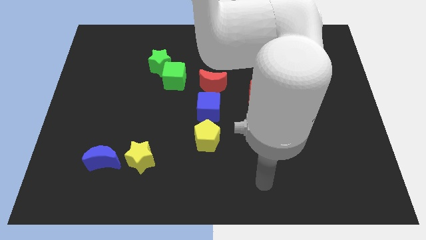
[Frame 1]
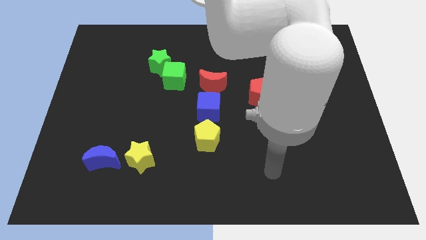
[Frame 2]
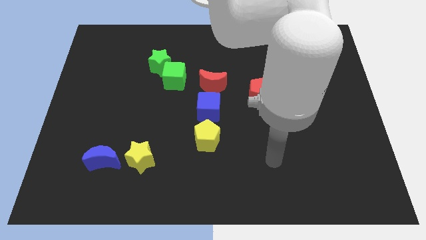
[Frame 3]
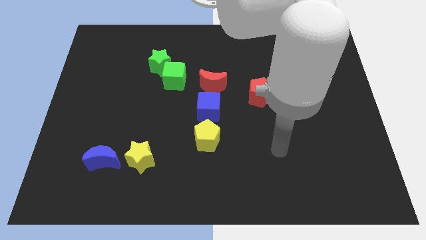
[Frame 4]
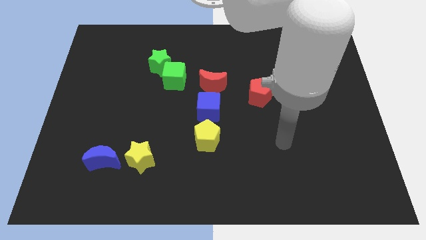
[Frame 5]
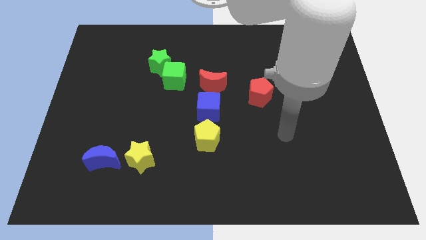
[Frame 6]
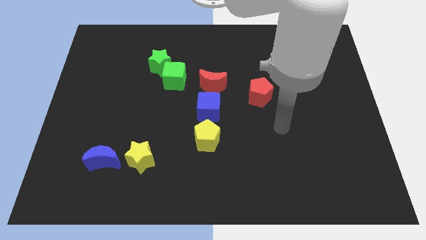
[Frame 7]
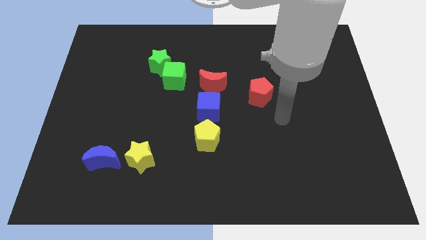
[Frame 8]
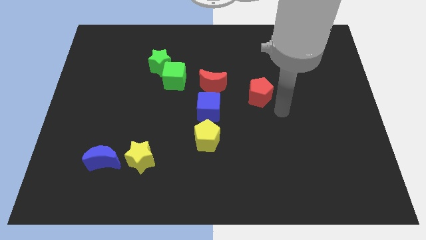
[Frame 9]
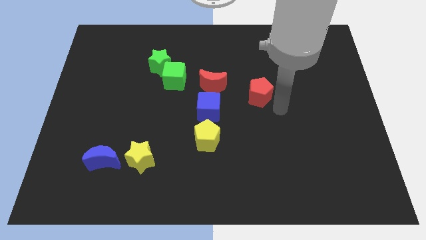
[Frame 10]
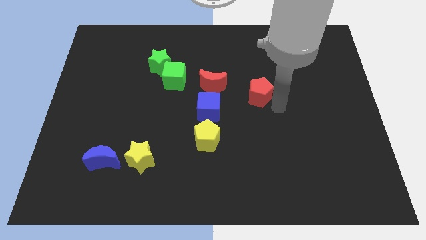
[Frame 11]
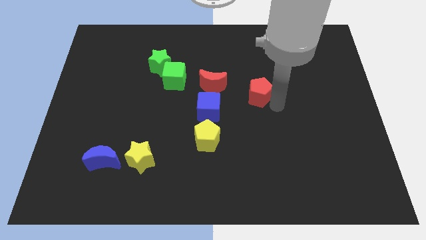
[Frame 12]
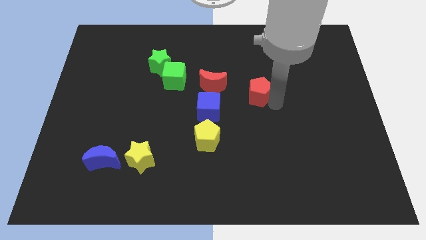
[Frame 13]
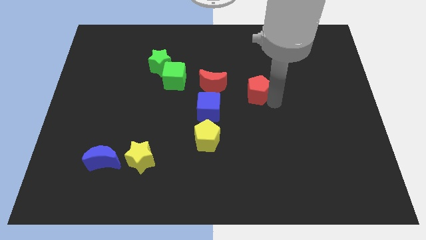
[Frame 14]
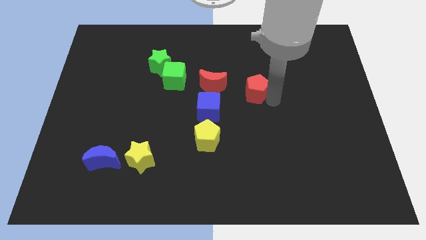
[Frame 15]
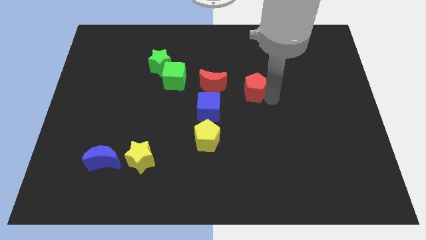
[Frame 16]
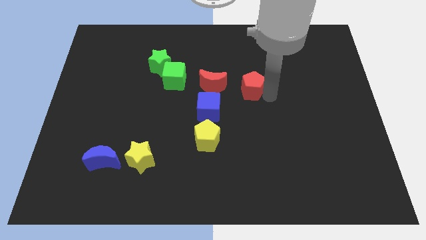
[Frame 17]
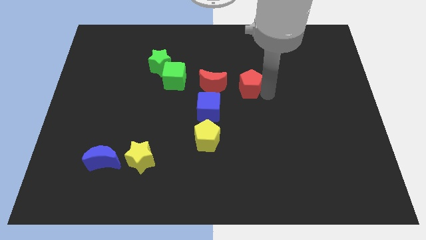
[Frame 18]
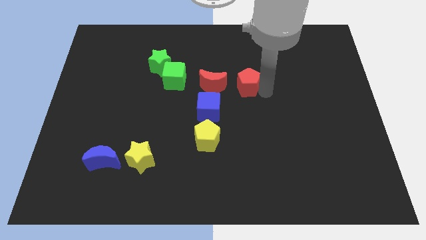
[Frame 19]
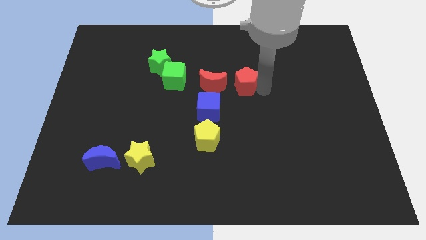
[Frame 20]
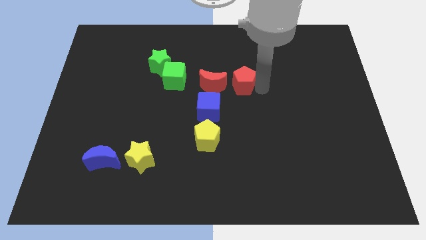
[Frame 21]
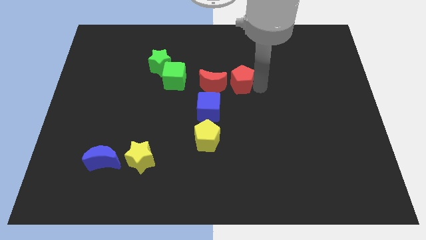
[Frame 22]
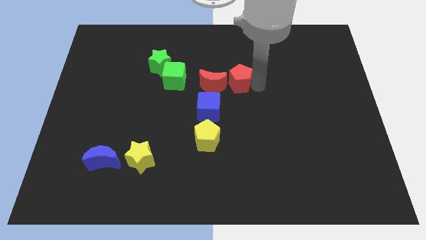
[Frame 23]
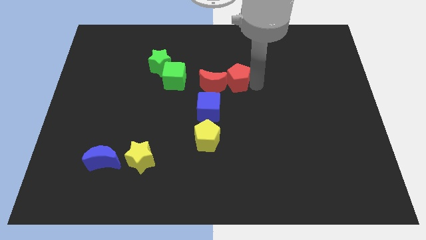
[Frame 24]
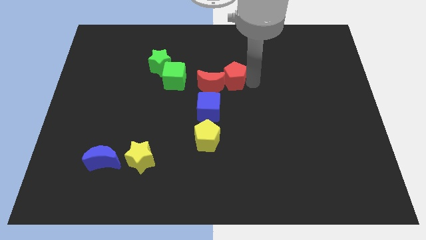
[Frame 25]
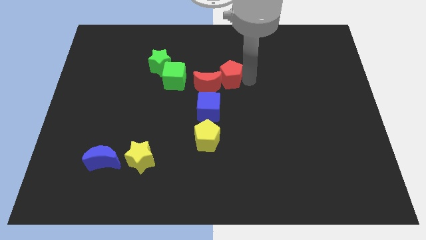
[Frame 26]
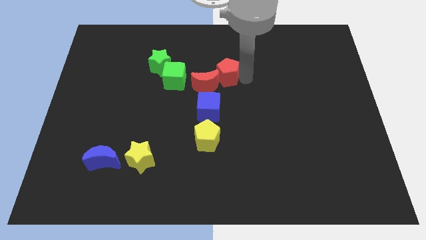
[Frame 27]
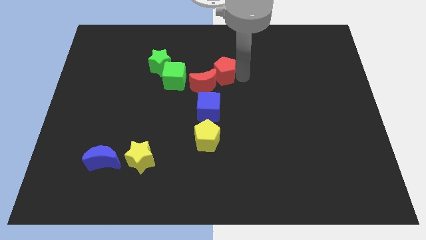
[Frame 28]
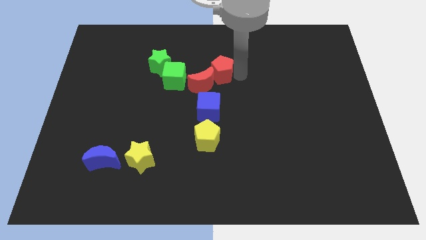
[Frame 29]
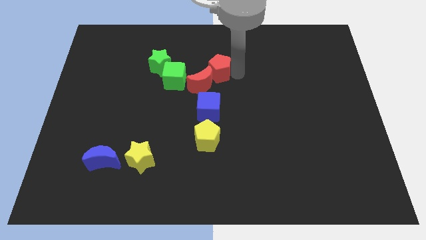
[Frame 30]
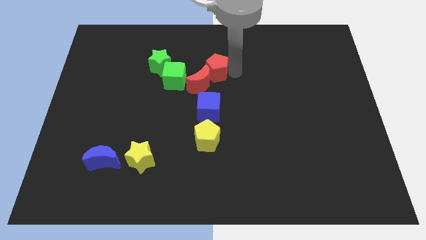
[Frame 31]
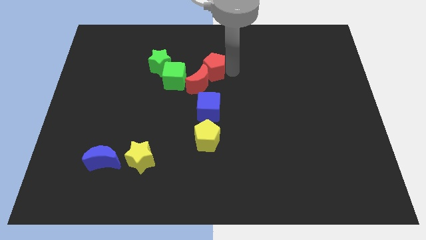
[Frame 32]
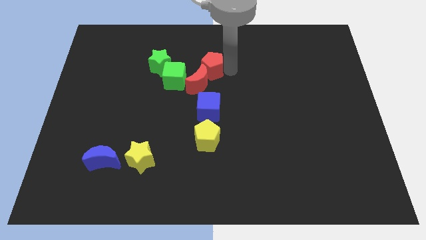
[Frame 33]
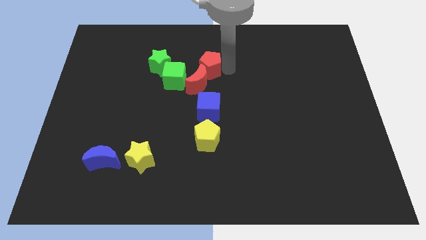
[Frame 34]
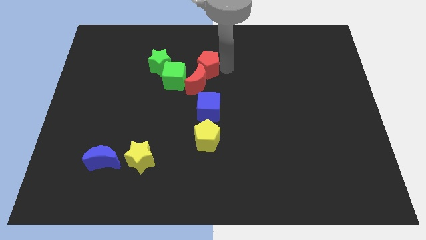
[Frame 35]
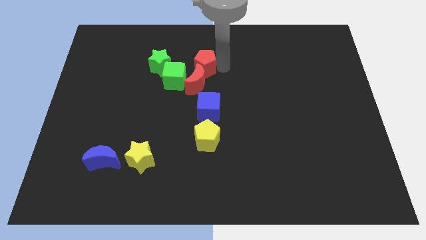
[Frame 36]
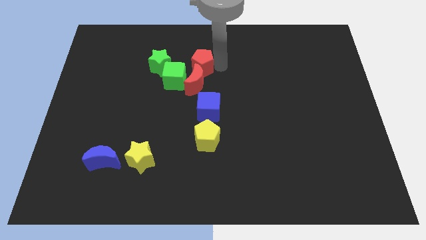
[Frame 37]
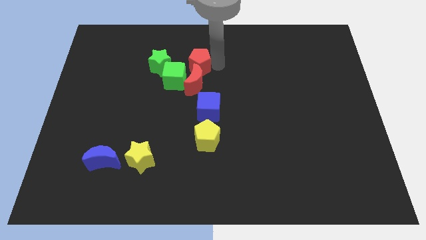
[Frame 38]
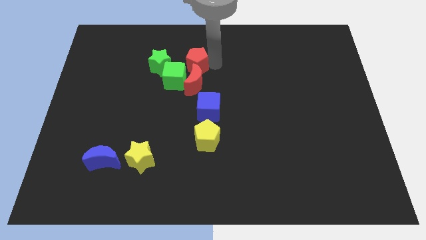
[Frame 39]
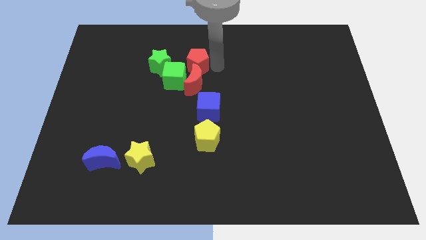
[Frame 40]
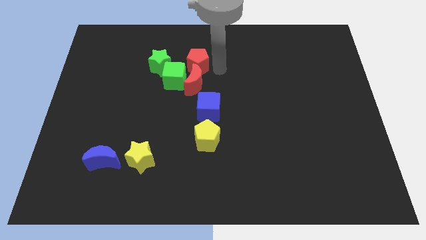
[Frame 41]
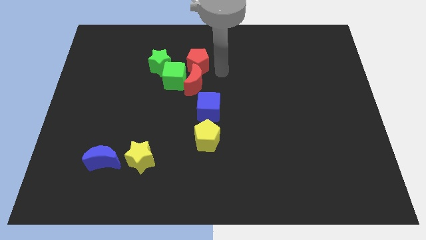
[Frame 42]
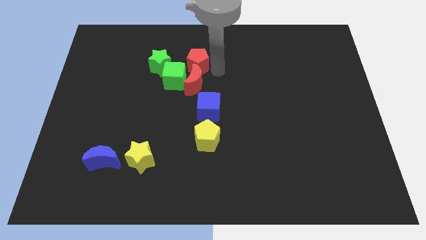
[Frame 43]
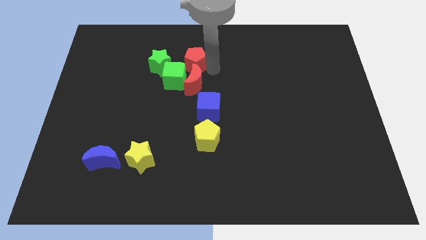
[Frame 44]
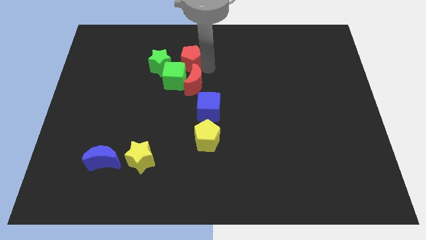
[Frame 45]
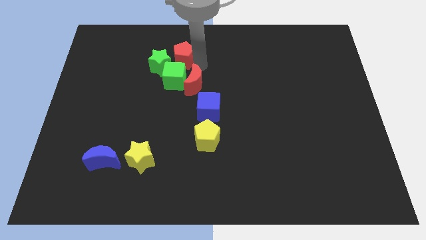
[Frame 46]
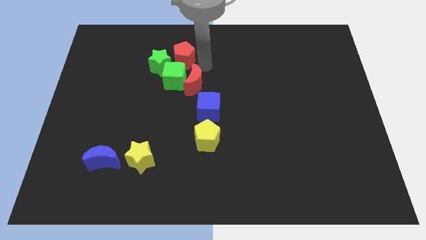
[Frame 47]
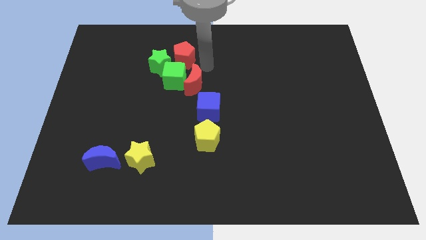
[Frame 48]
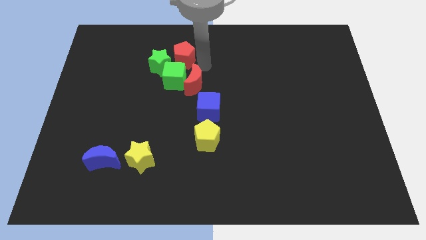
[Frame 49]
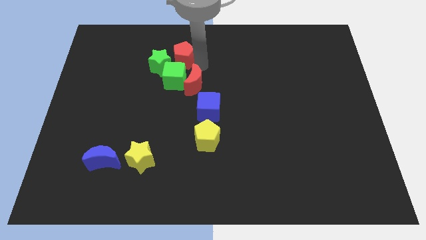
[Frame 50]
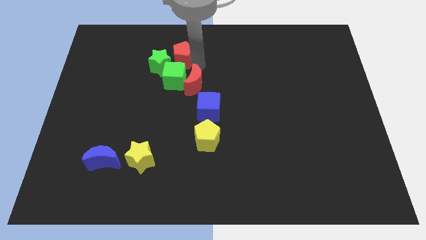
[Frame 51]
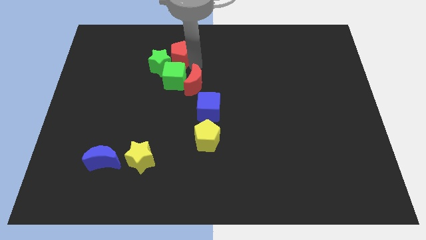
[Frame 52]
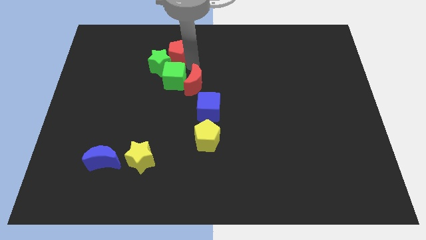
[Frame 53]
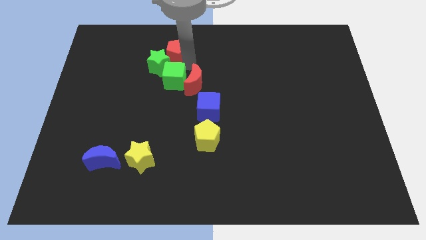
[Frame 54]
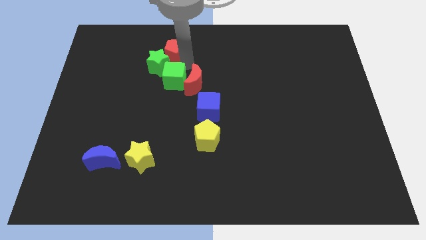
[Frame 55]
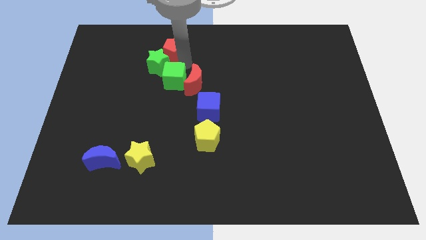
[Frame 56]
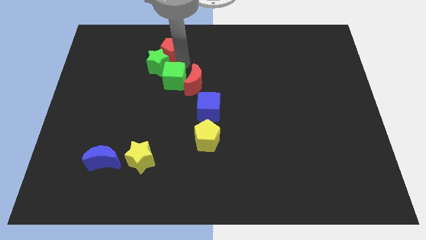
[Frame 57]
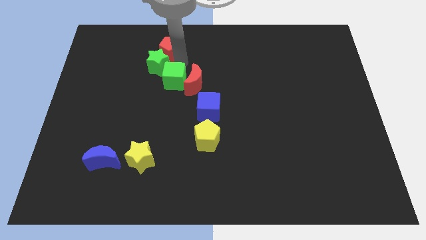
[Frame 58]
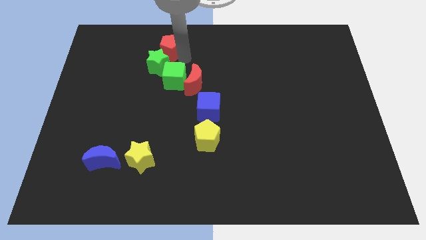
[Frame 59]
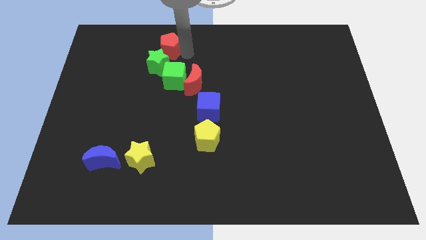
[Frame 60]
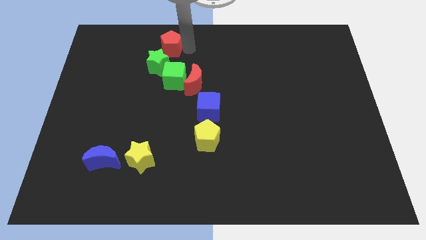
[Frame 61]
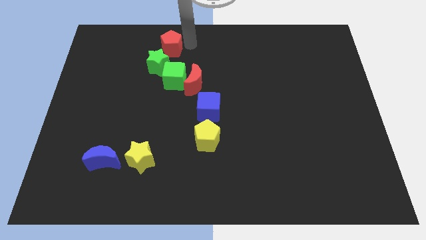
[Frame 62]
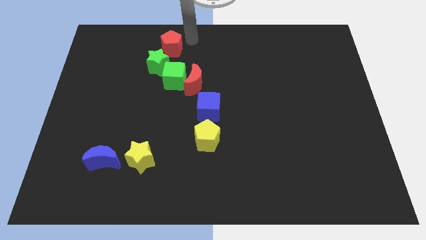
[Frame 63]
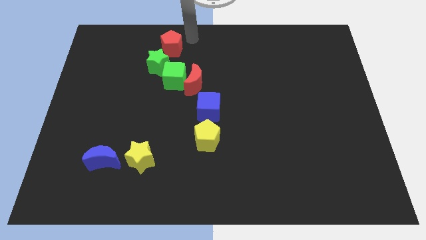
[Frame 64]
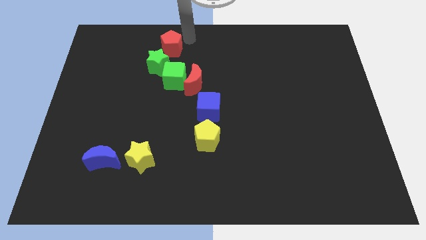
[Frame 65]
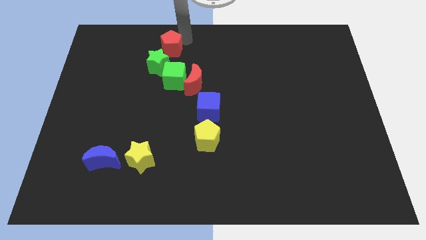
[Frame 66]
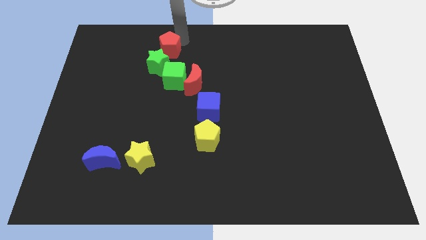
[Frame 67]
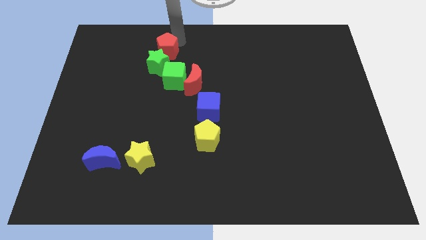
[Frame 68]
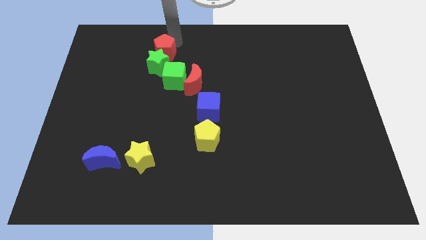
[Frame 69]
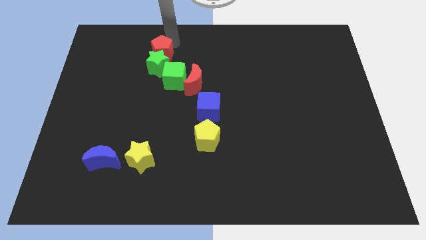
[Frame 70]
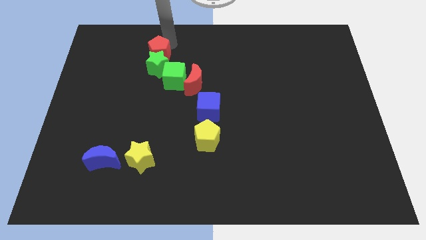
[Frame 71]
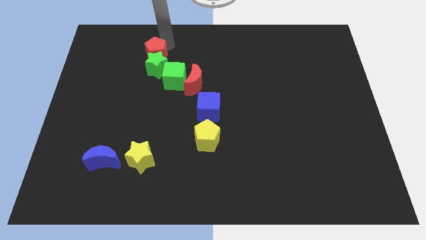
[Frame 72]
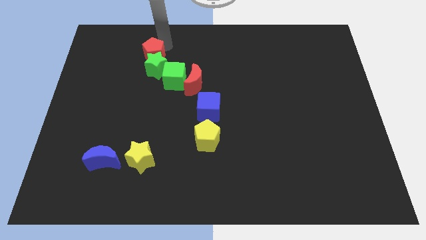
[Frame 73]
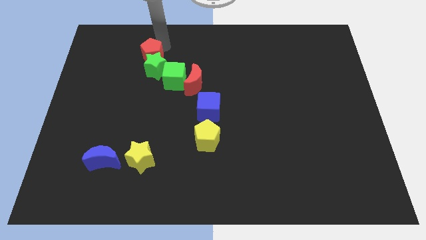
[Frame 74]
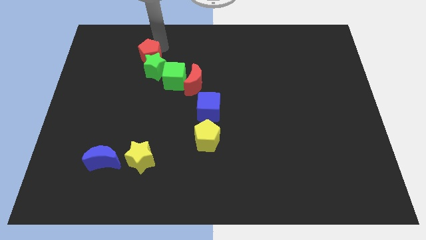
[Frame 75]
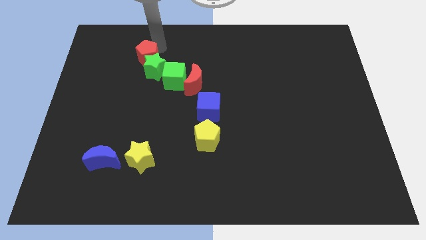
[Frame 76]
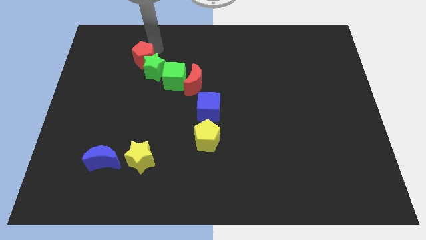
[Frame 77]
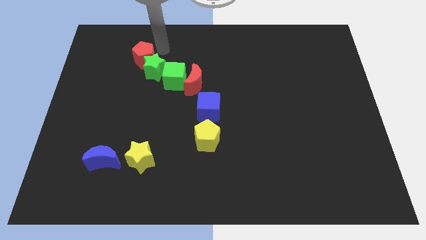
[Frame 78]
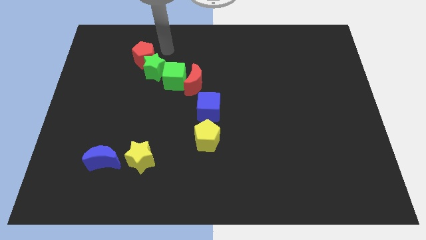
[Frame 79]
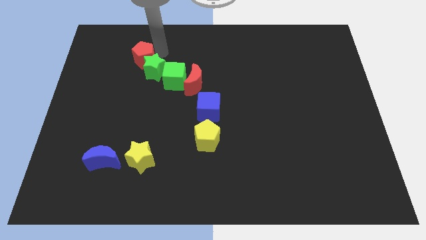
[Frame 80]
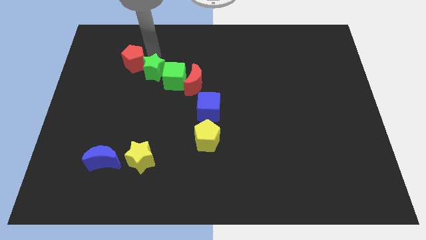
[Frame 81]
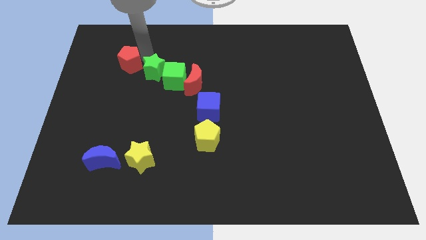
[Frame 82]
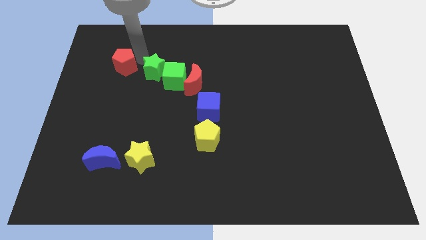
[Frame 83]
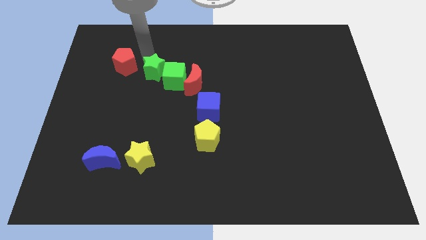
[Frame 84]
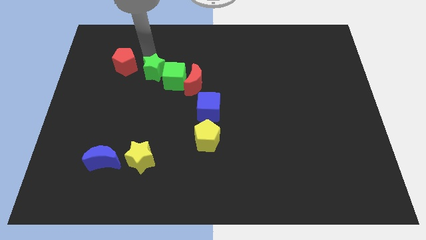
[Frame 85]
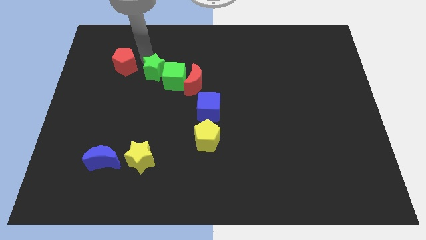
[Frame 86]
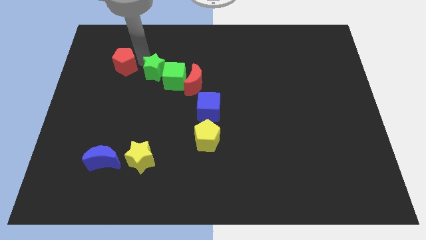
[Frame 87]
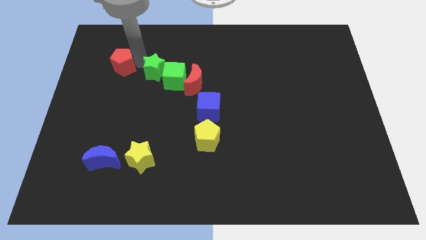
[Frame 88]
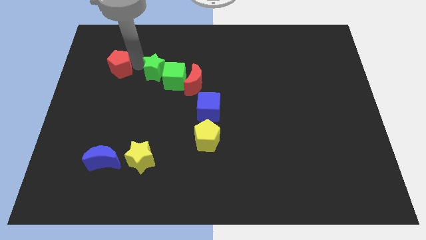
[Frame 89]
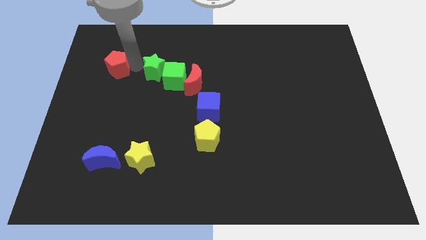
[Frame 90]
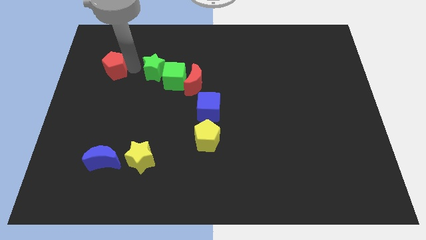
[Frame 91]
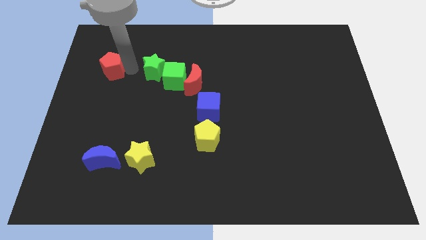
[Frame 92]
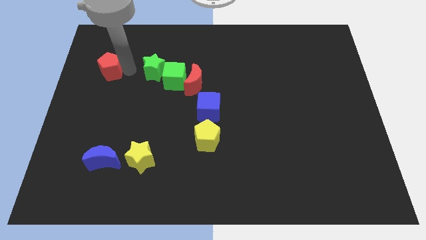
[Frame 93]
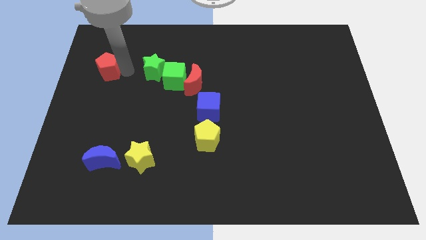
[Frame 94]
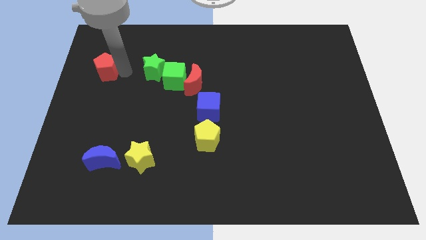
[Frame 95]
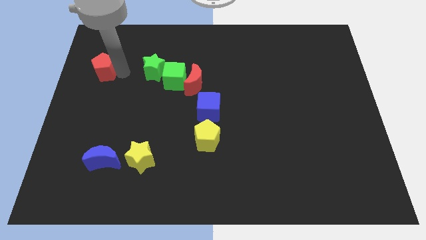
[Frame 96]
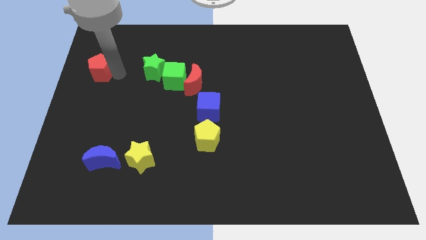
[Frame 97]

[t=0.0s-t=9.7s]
slide the red pentagon to the left side of the board
